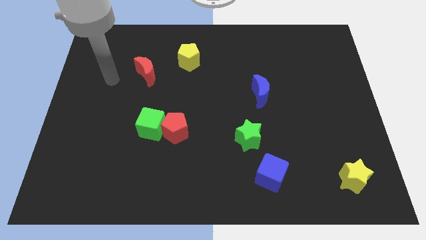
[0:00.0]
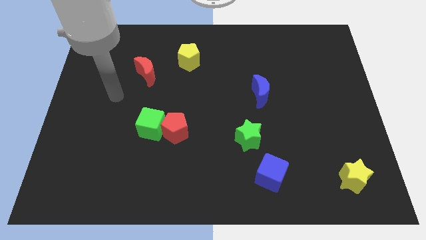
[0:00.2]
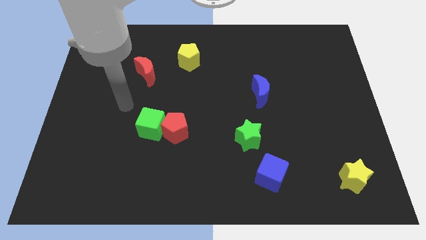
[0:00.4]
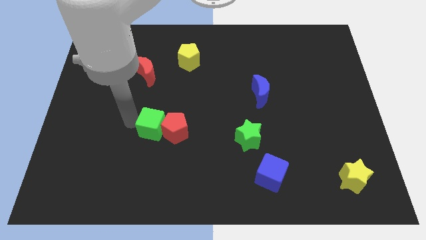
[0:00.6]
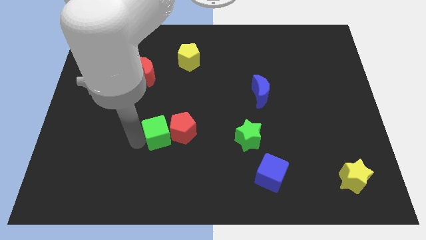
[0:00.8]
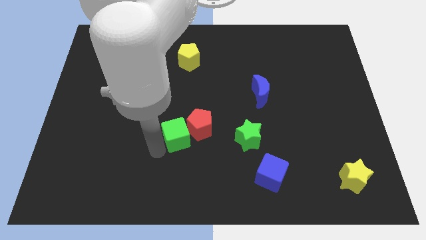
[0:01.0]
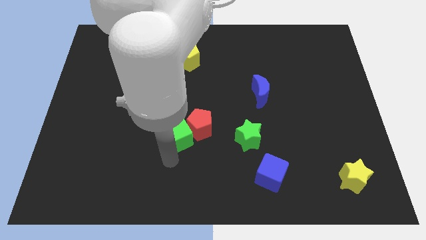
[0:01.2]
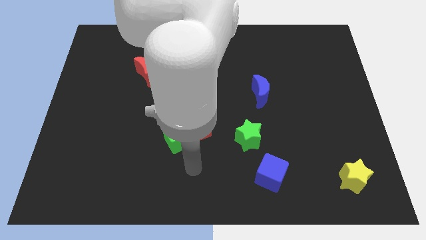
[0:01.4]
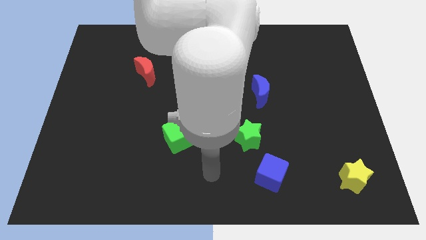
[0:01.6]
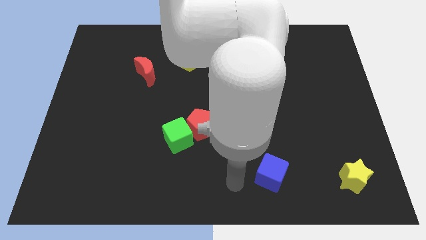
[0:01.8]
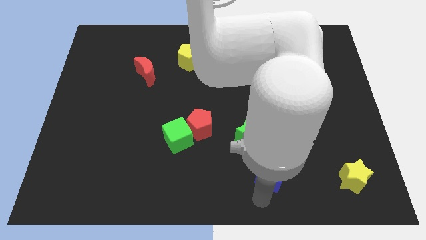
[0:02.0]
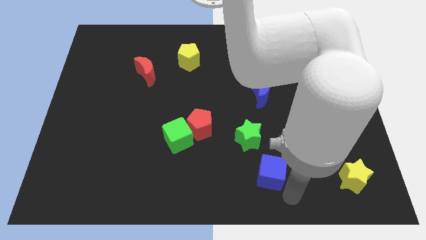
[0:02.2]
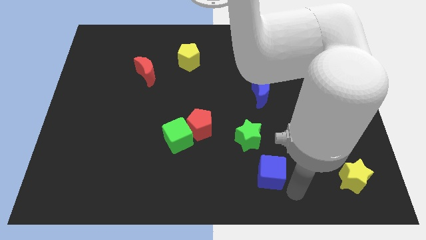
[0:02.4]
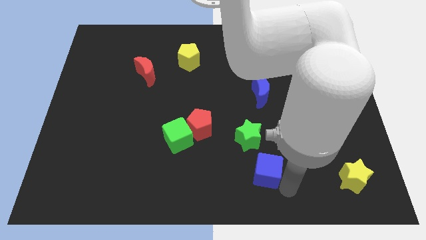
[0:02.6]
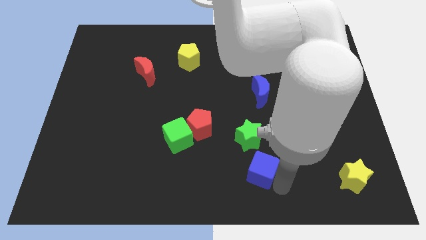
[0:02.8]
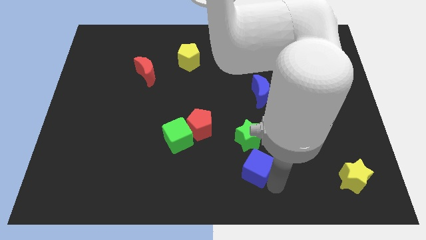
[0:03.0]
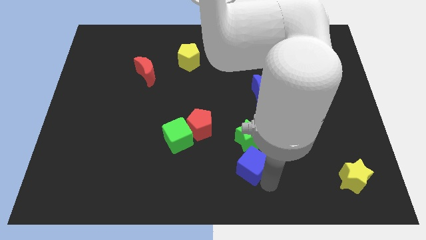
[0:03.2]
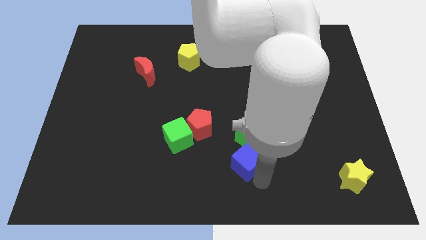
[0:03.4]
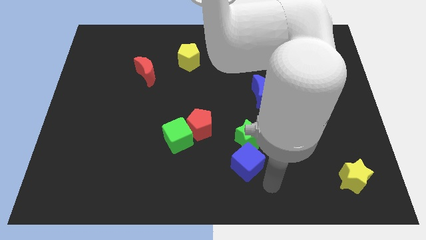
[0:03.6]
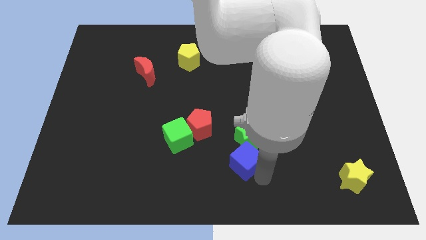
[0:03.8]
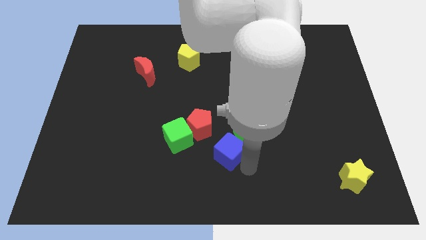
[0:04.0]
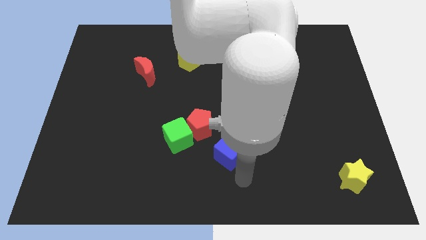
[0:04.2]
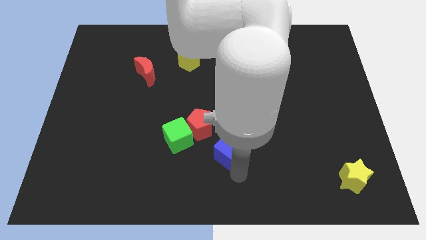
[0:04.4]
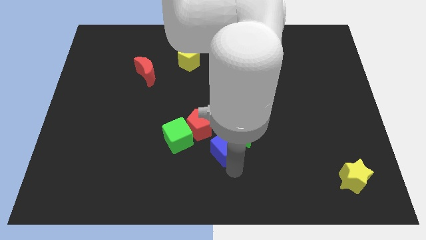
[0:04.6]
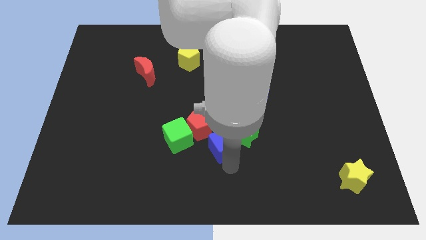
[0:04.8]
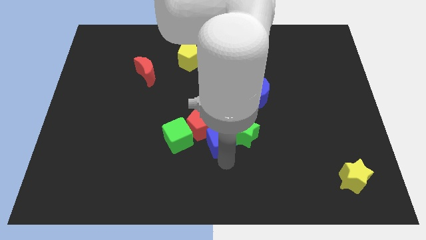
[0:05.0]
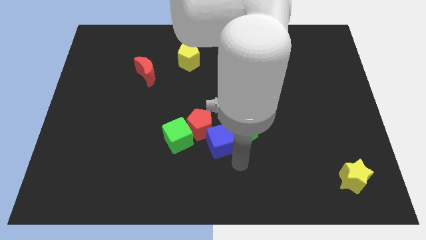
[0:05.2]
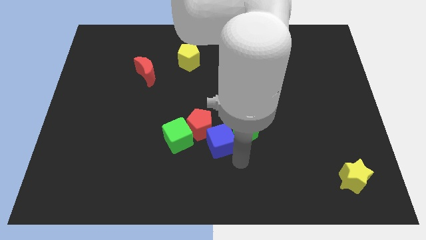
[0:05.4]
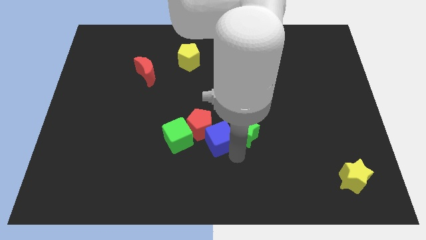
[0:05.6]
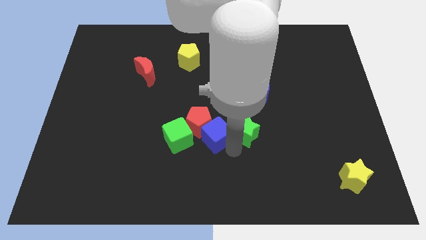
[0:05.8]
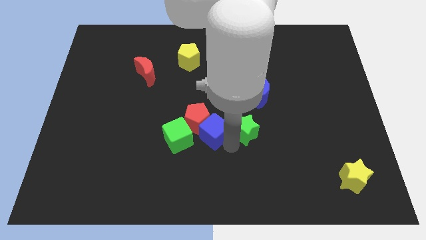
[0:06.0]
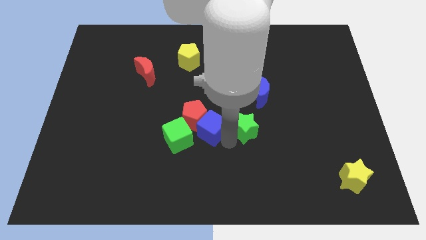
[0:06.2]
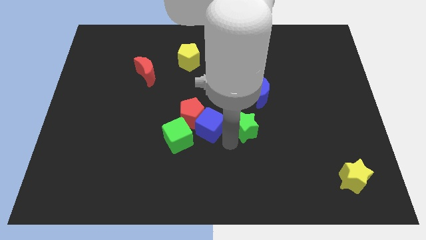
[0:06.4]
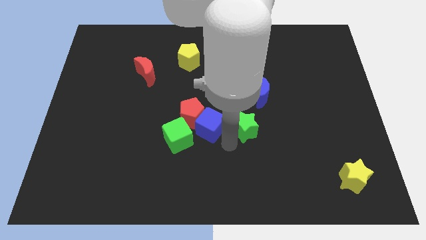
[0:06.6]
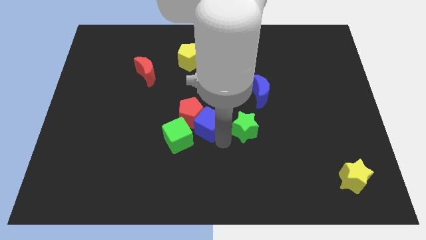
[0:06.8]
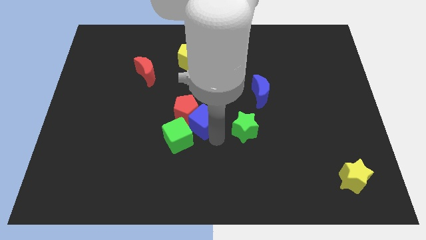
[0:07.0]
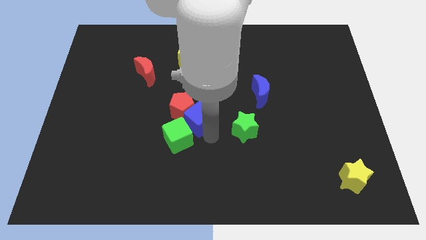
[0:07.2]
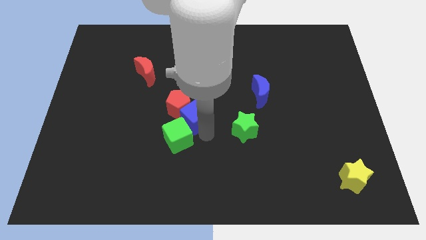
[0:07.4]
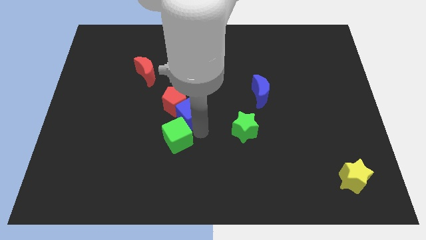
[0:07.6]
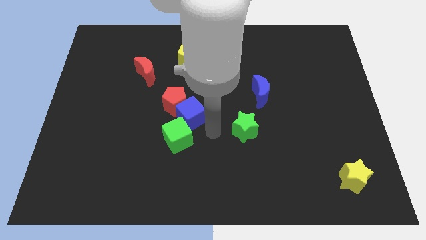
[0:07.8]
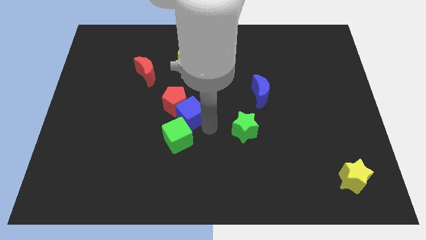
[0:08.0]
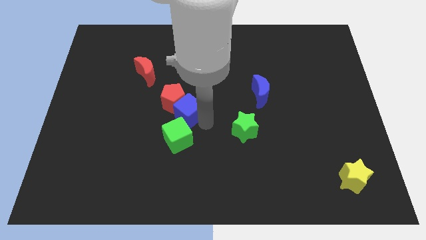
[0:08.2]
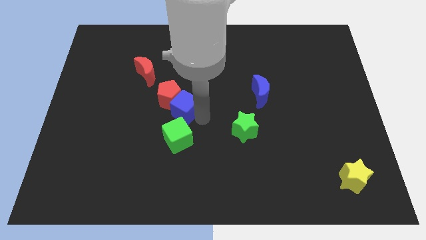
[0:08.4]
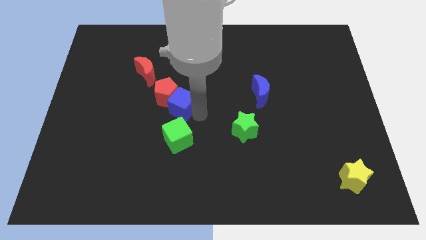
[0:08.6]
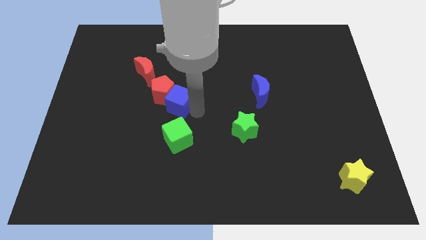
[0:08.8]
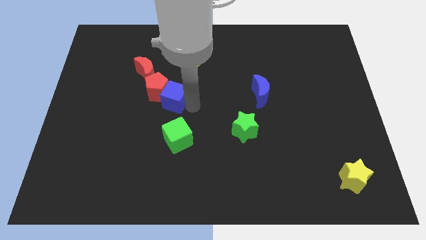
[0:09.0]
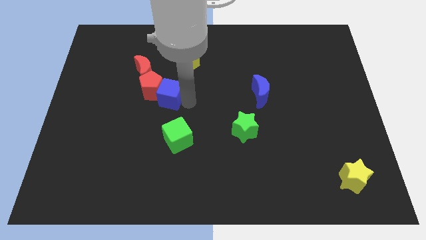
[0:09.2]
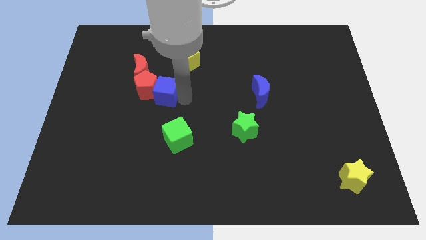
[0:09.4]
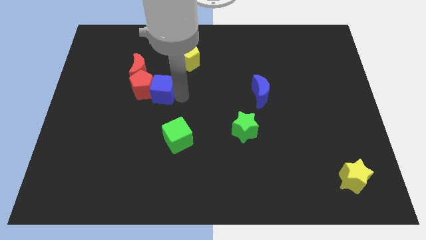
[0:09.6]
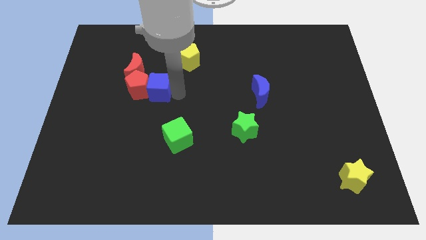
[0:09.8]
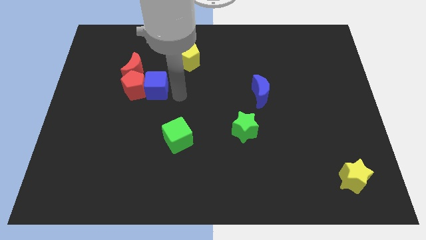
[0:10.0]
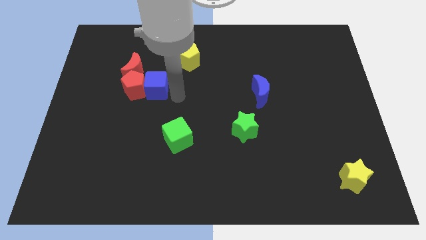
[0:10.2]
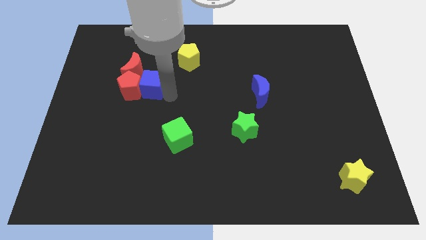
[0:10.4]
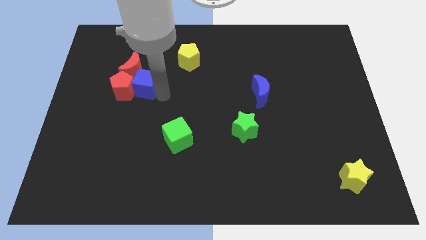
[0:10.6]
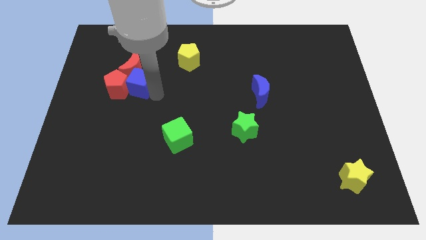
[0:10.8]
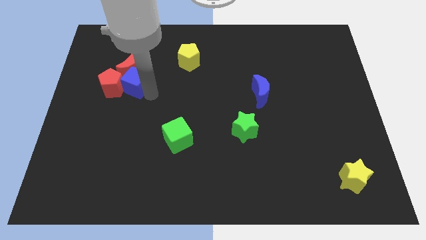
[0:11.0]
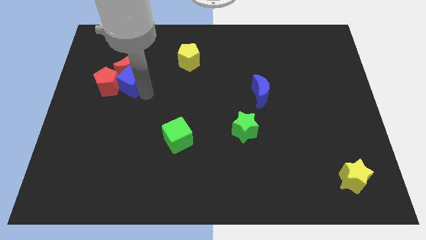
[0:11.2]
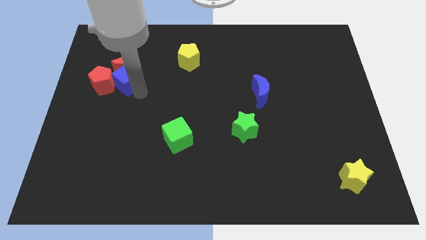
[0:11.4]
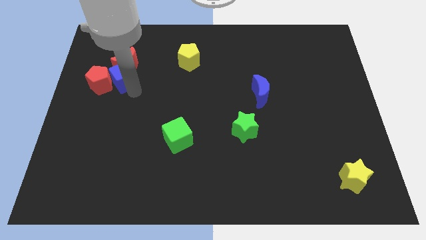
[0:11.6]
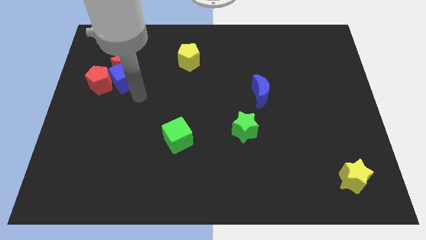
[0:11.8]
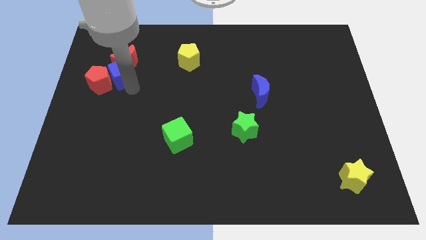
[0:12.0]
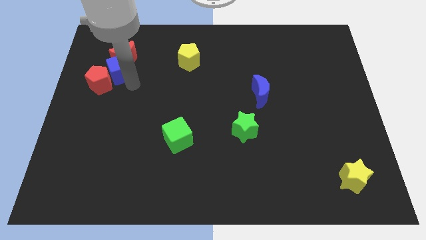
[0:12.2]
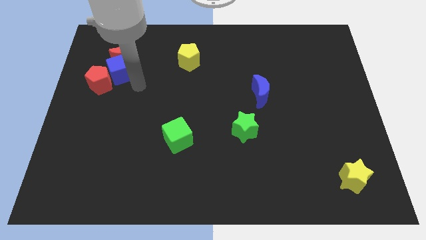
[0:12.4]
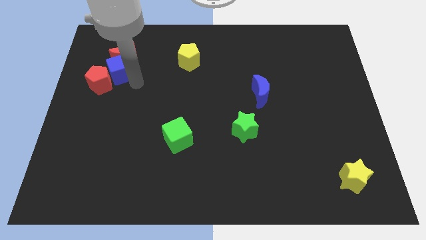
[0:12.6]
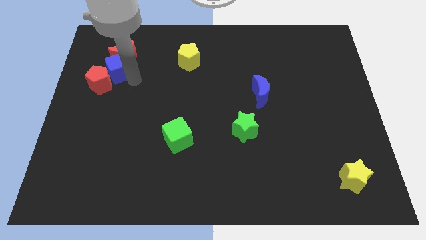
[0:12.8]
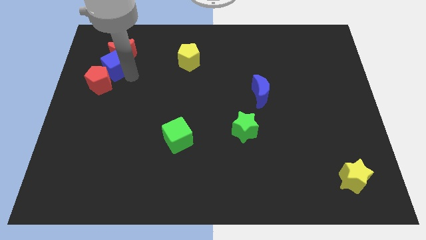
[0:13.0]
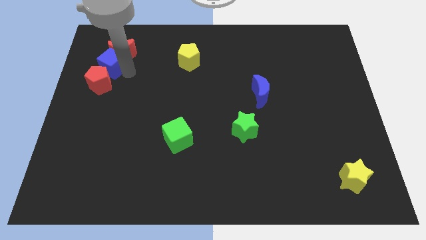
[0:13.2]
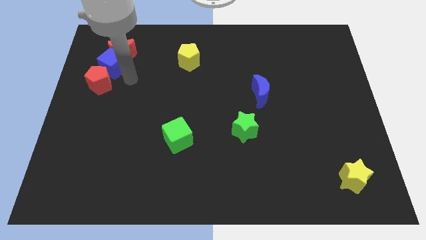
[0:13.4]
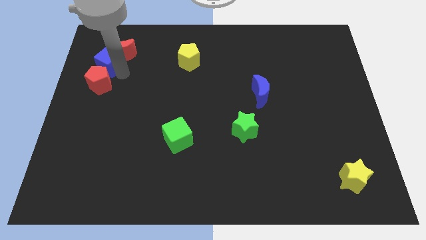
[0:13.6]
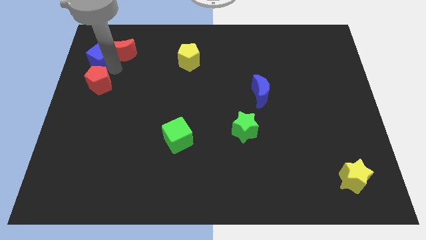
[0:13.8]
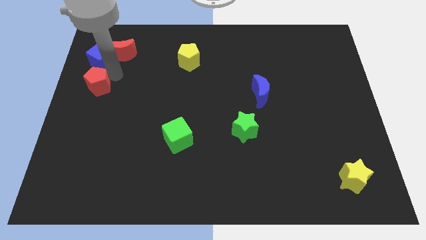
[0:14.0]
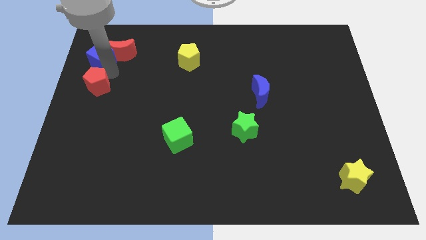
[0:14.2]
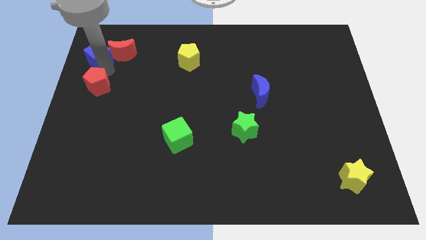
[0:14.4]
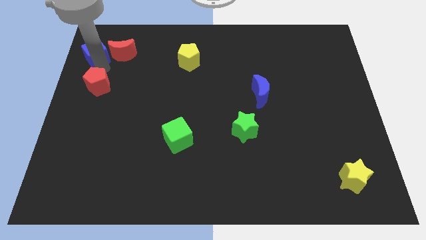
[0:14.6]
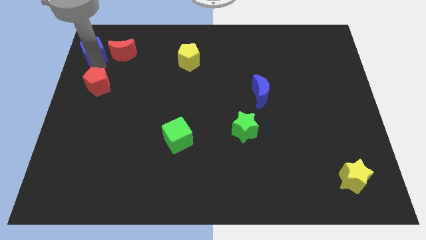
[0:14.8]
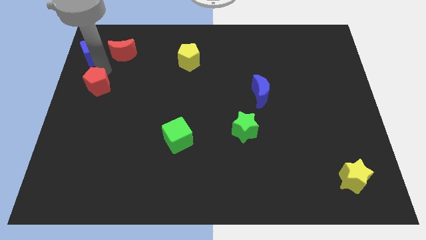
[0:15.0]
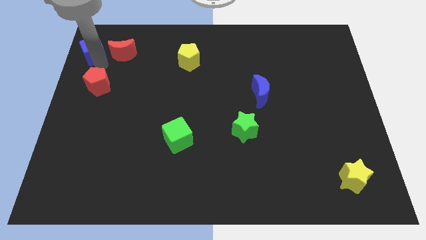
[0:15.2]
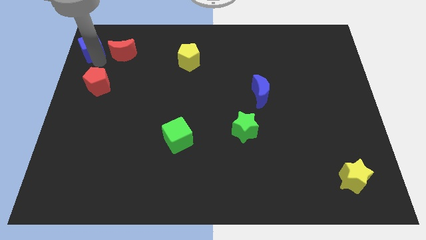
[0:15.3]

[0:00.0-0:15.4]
put the blue cube to the top left of the board
